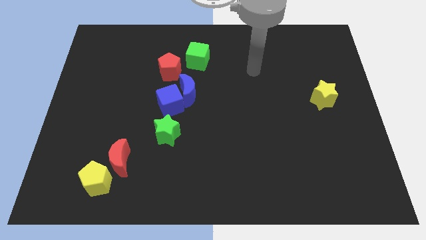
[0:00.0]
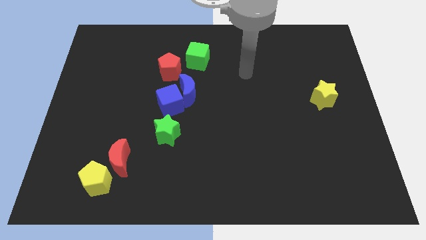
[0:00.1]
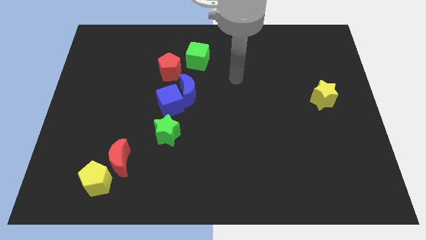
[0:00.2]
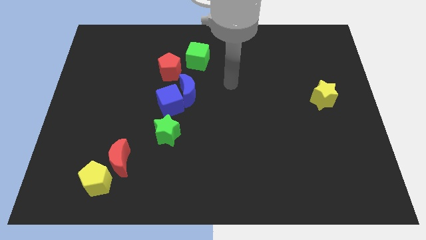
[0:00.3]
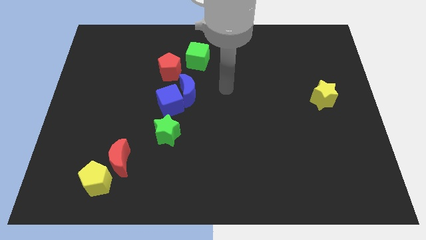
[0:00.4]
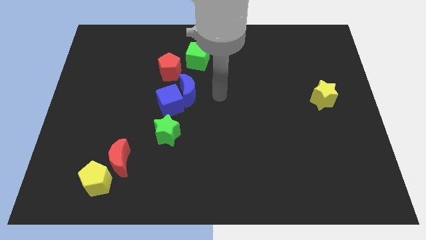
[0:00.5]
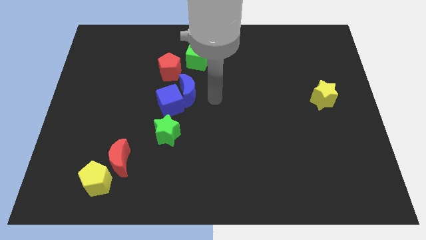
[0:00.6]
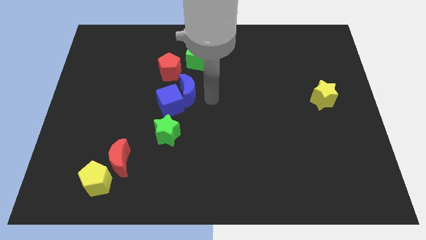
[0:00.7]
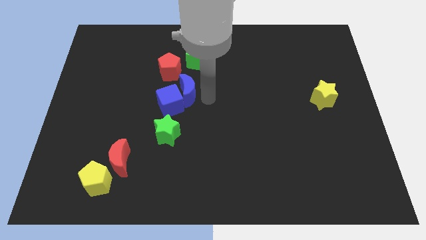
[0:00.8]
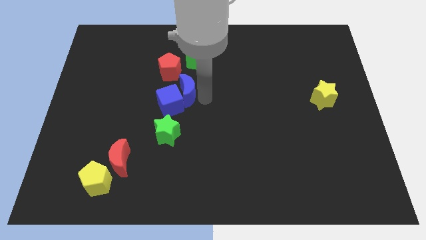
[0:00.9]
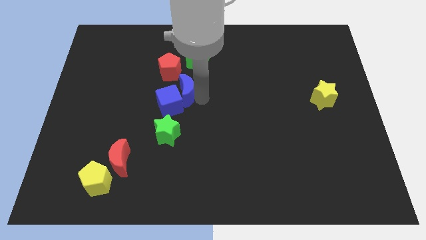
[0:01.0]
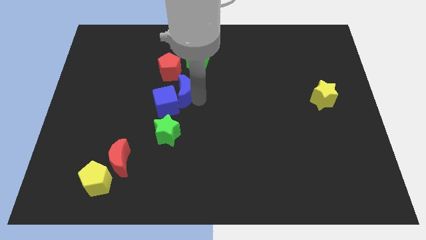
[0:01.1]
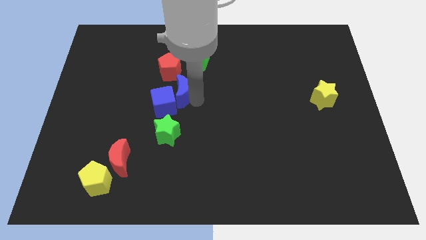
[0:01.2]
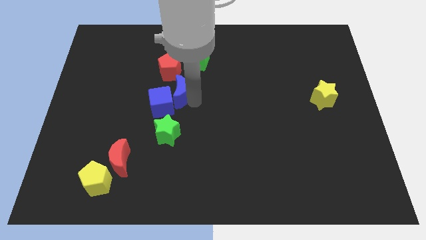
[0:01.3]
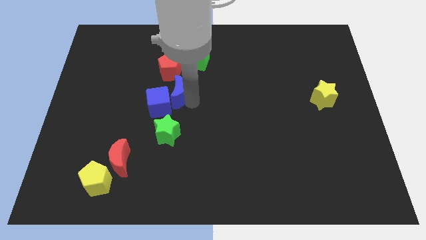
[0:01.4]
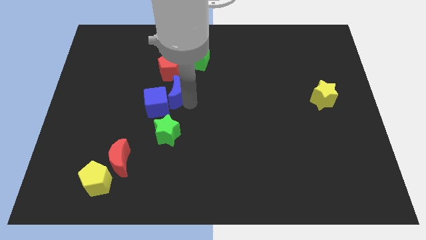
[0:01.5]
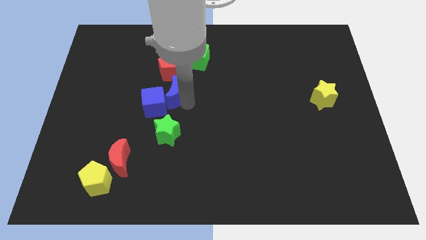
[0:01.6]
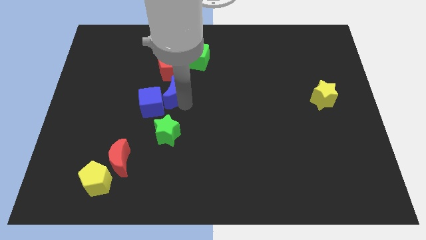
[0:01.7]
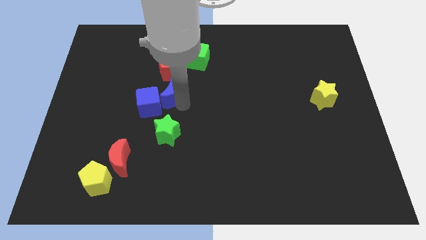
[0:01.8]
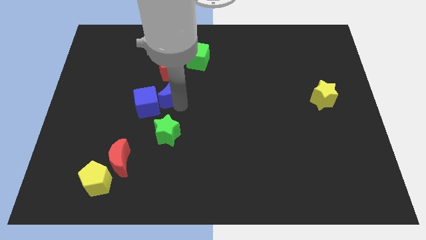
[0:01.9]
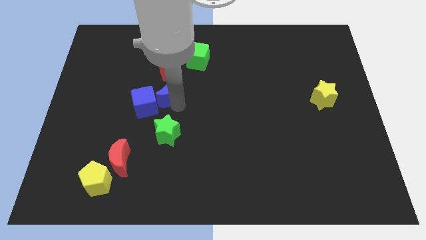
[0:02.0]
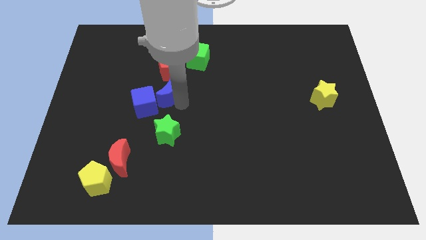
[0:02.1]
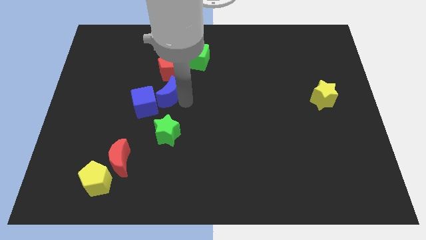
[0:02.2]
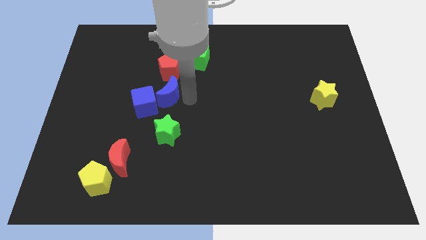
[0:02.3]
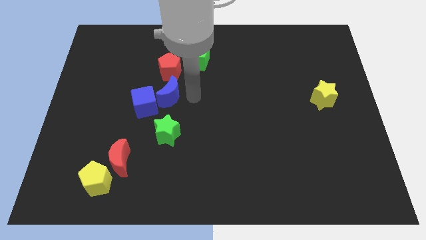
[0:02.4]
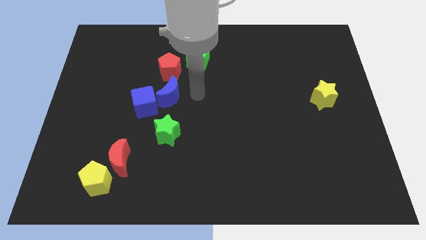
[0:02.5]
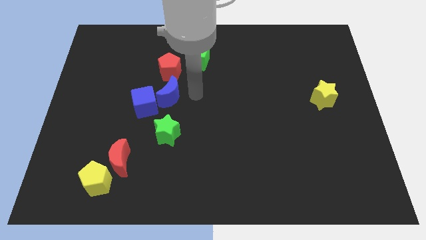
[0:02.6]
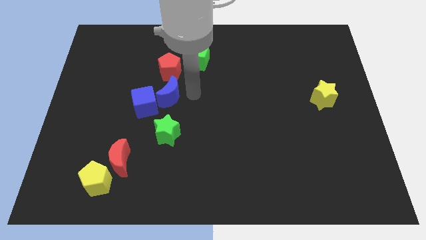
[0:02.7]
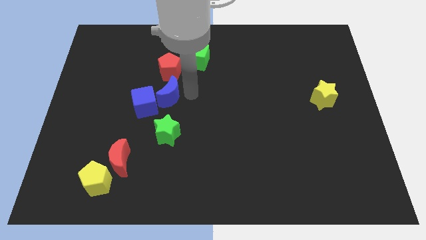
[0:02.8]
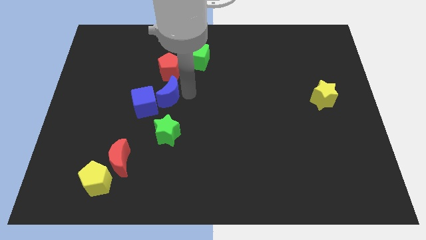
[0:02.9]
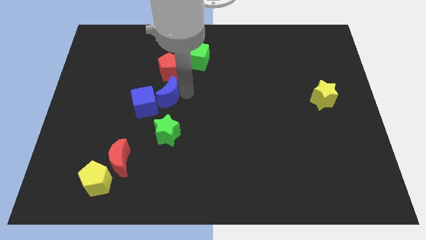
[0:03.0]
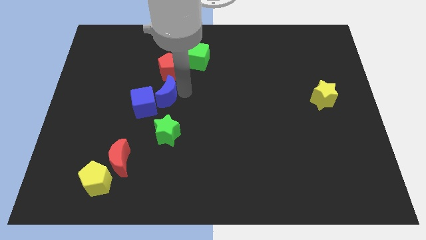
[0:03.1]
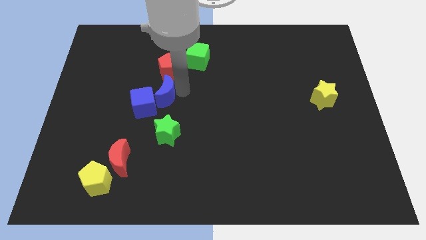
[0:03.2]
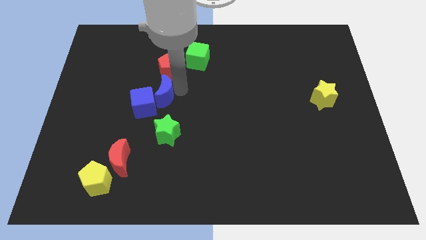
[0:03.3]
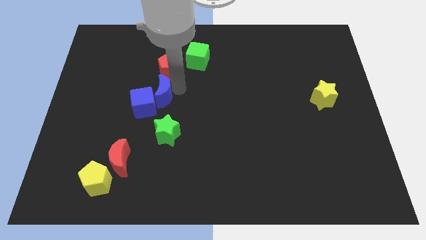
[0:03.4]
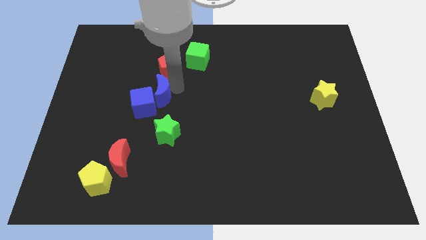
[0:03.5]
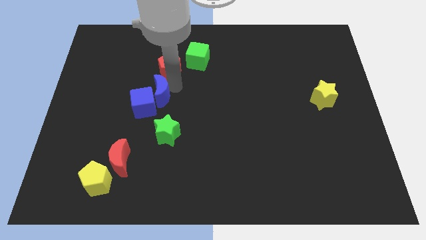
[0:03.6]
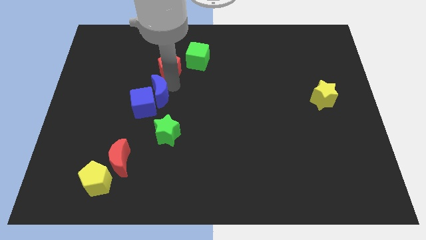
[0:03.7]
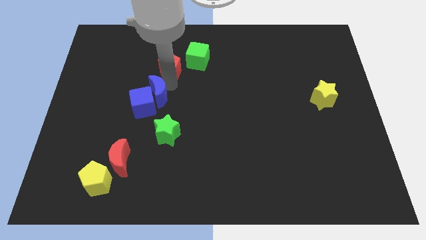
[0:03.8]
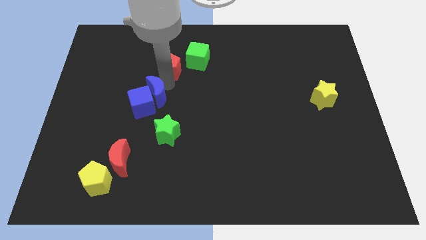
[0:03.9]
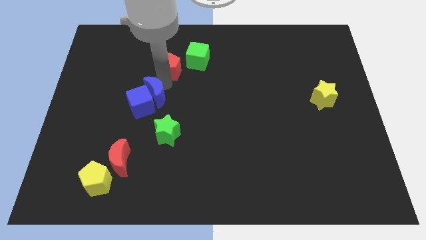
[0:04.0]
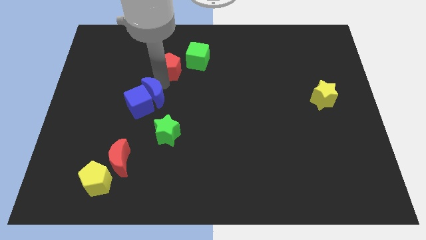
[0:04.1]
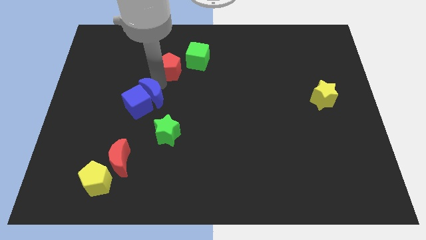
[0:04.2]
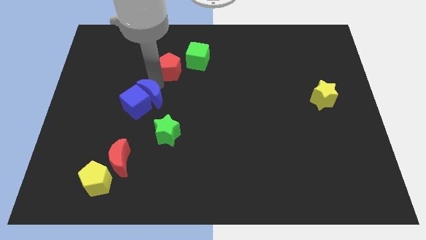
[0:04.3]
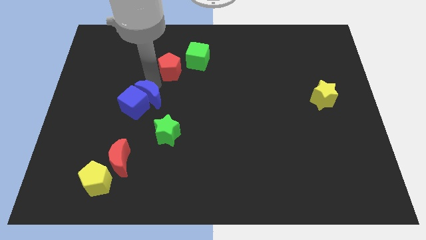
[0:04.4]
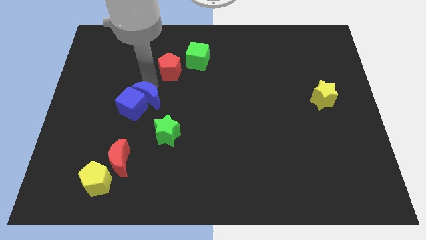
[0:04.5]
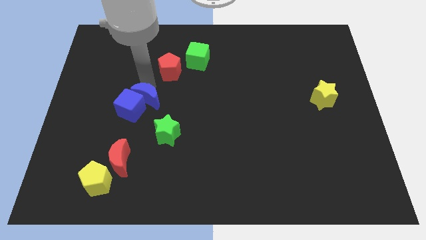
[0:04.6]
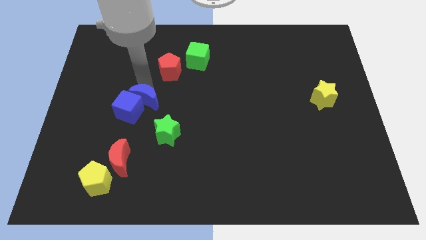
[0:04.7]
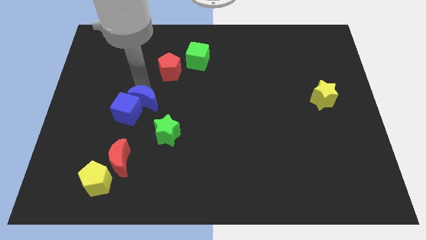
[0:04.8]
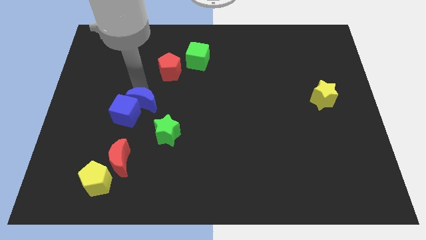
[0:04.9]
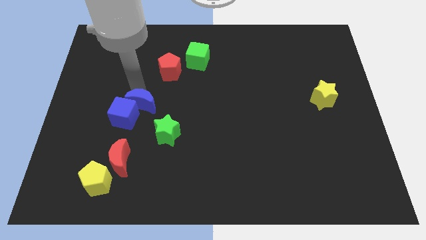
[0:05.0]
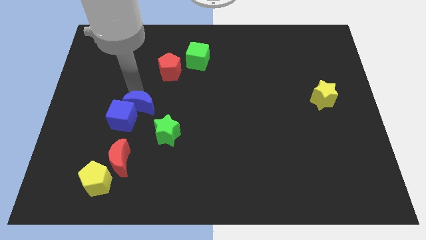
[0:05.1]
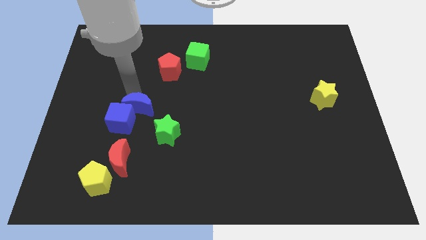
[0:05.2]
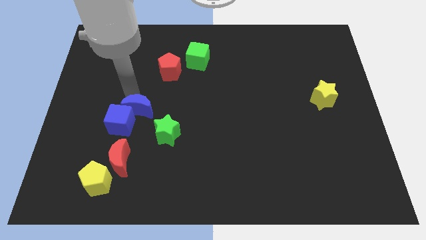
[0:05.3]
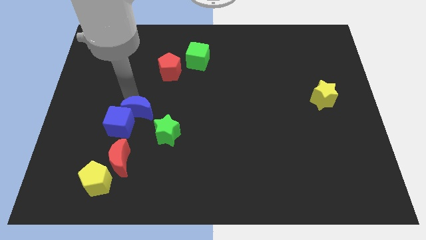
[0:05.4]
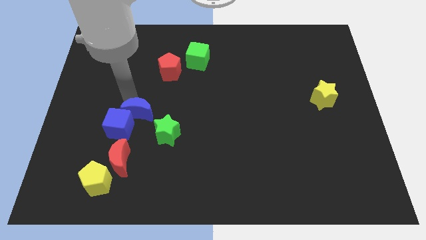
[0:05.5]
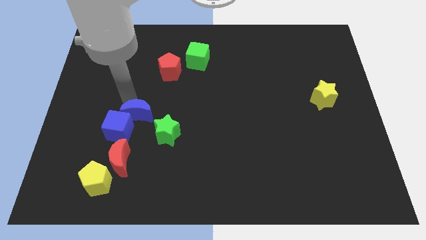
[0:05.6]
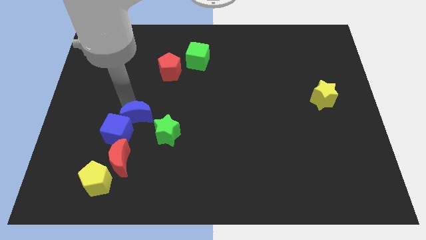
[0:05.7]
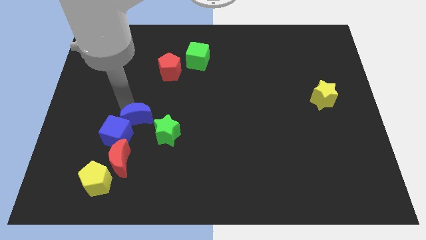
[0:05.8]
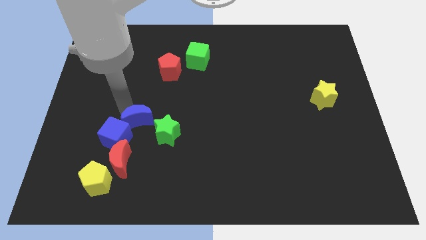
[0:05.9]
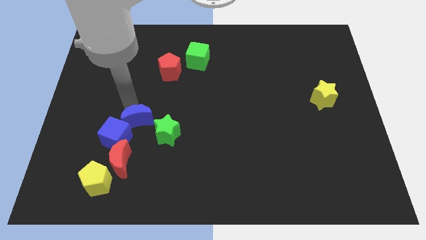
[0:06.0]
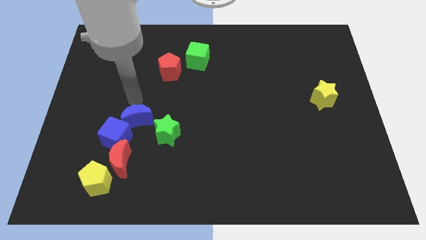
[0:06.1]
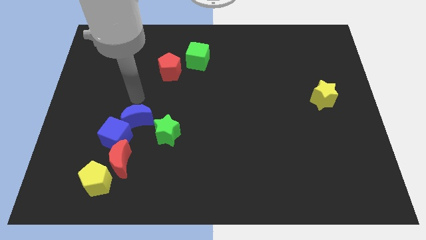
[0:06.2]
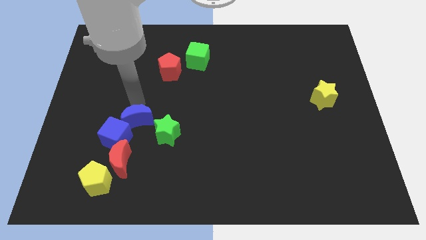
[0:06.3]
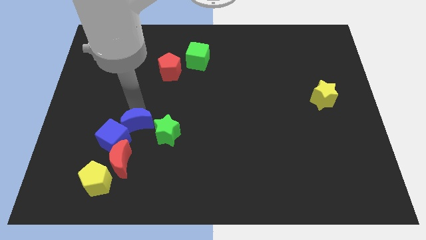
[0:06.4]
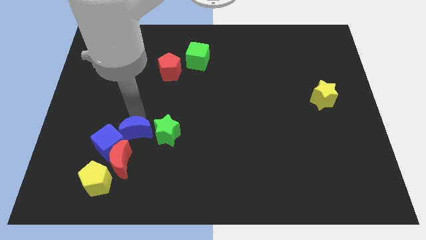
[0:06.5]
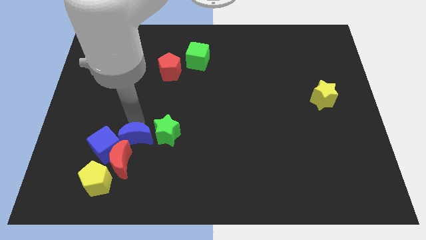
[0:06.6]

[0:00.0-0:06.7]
slide the blue moon diagonally down and to the left of the green star

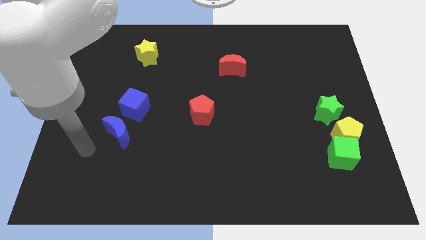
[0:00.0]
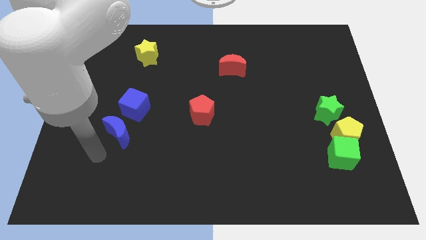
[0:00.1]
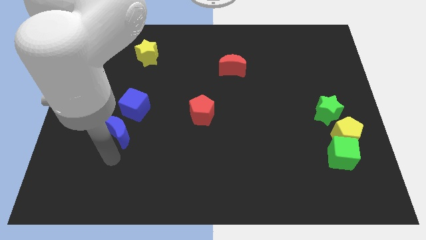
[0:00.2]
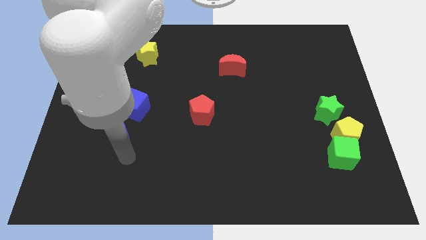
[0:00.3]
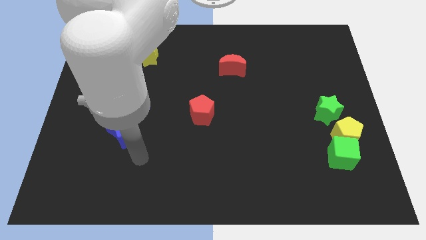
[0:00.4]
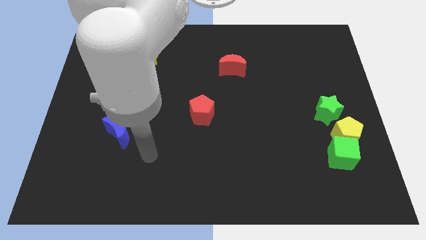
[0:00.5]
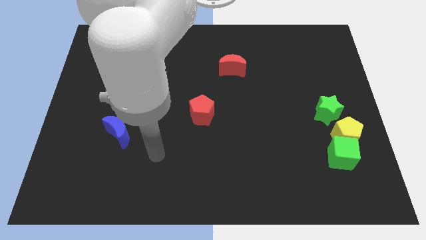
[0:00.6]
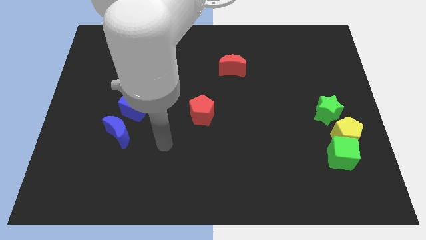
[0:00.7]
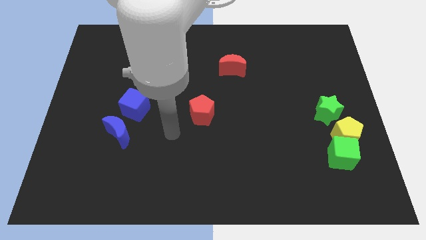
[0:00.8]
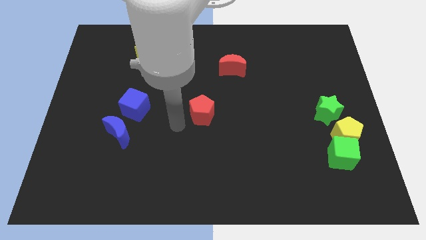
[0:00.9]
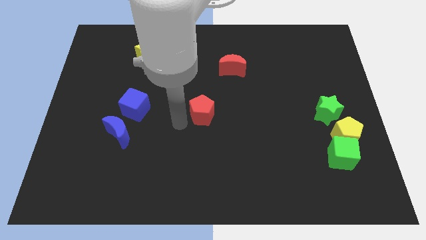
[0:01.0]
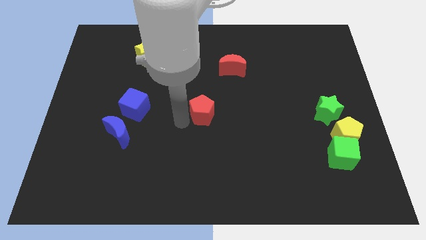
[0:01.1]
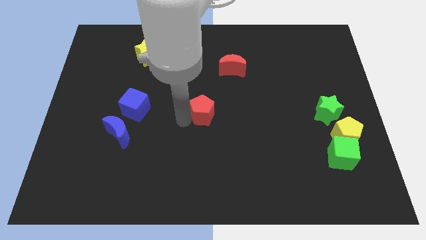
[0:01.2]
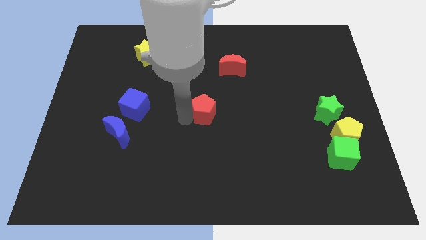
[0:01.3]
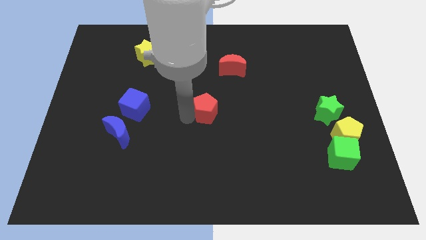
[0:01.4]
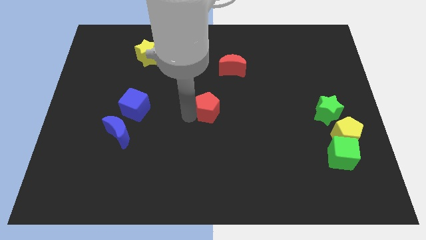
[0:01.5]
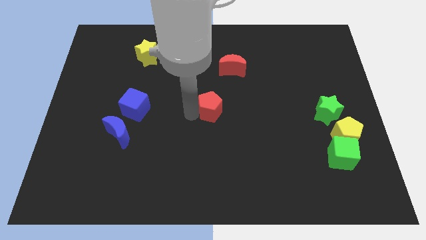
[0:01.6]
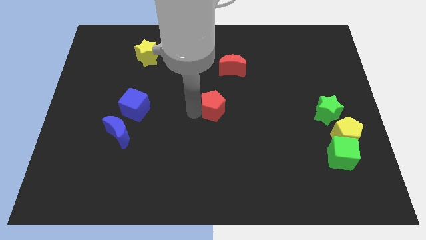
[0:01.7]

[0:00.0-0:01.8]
move the red pentagon to the bottom of the red moon
